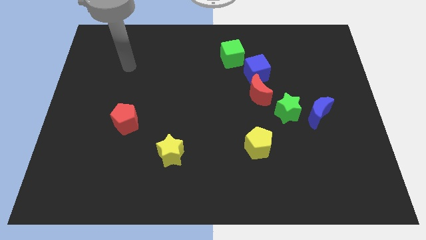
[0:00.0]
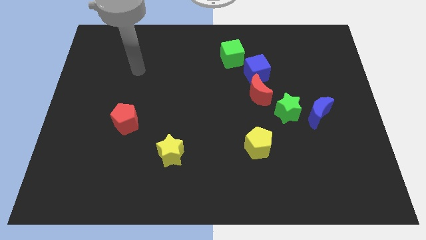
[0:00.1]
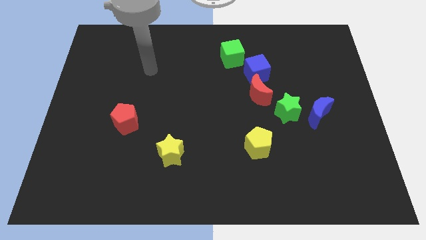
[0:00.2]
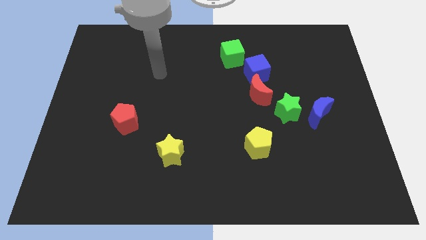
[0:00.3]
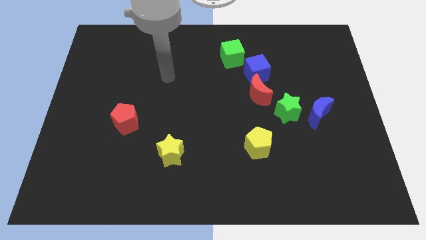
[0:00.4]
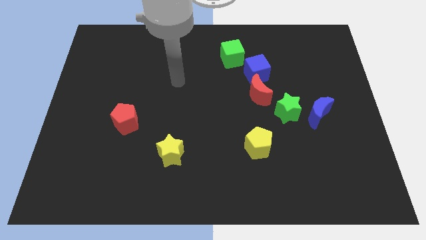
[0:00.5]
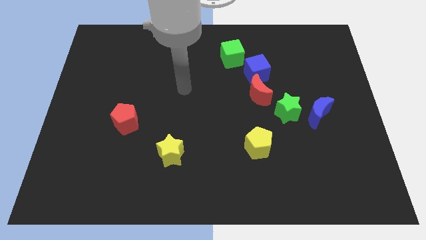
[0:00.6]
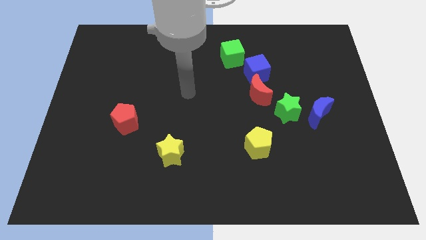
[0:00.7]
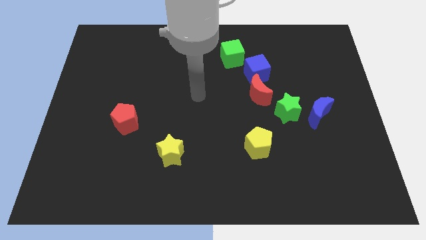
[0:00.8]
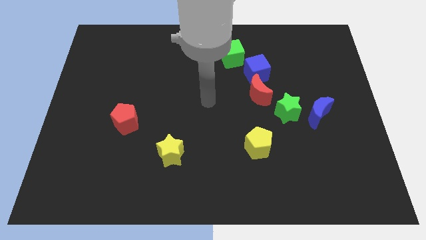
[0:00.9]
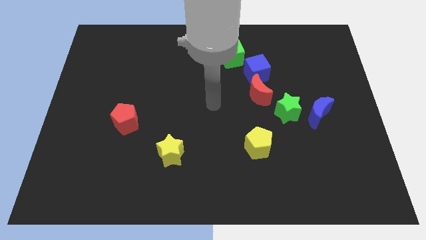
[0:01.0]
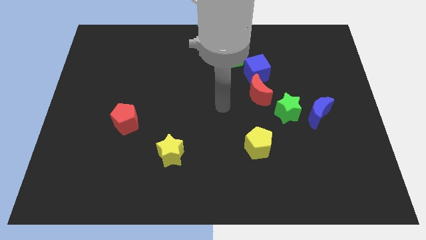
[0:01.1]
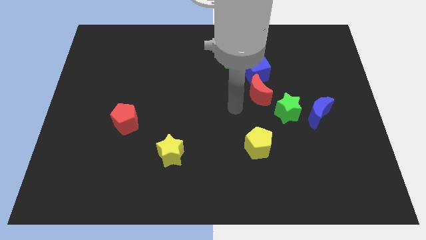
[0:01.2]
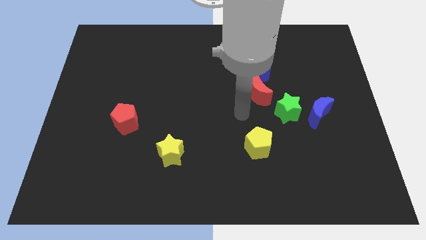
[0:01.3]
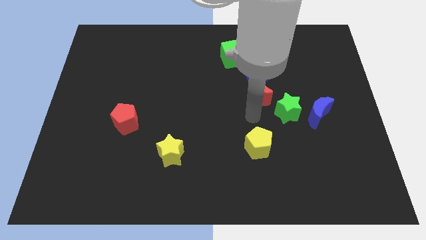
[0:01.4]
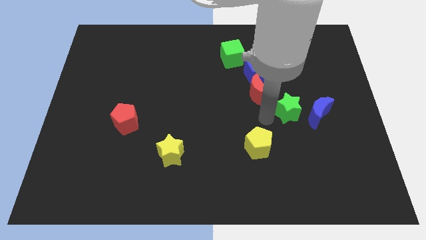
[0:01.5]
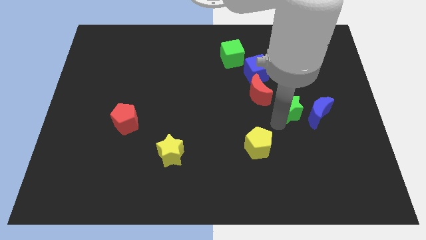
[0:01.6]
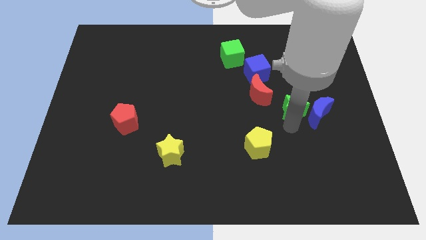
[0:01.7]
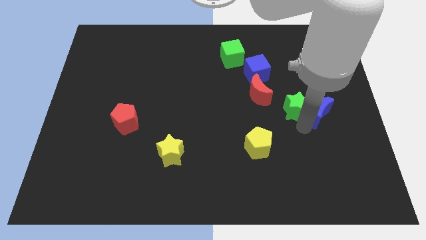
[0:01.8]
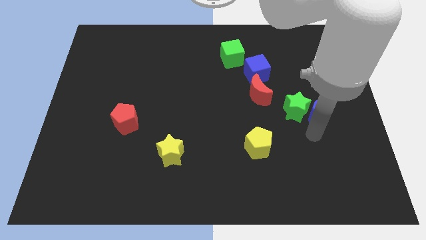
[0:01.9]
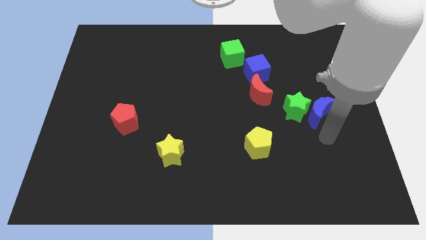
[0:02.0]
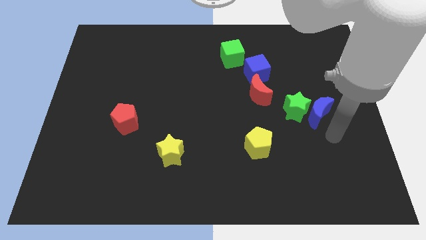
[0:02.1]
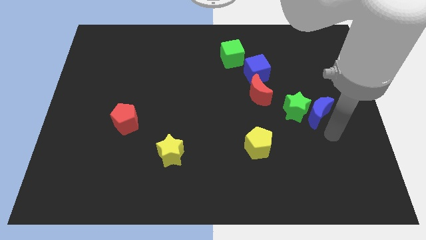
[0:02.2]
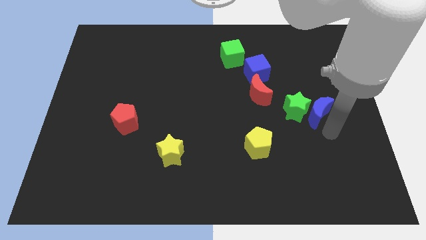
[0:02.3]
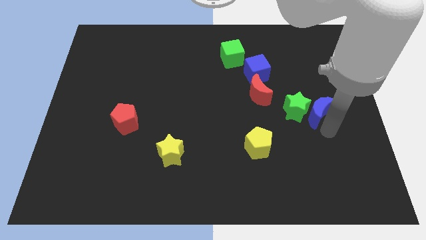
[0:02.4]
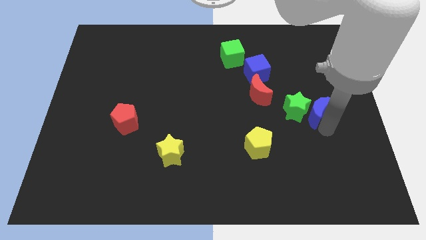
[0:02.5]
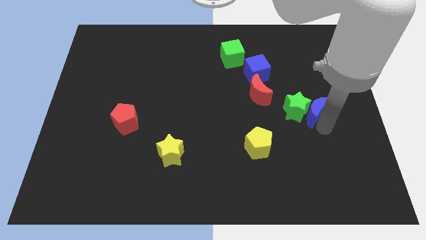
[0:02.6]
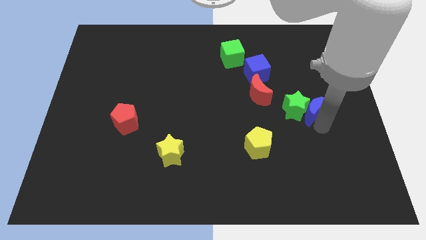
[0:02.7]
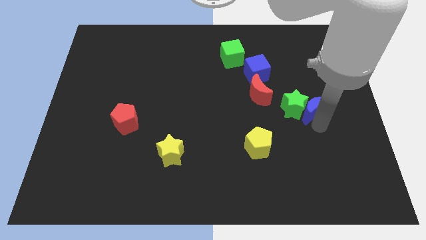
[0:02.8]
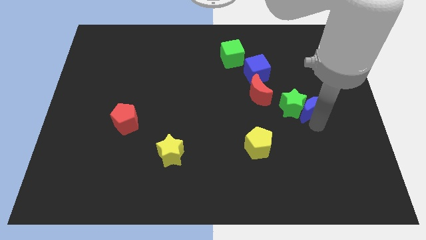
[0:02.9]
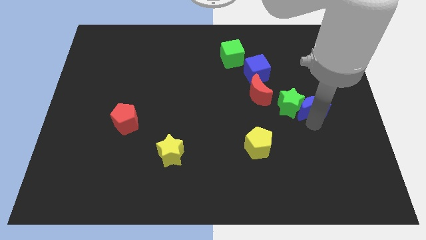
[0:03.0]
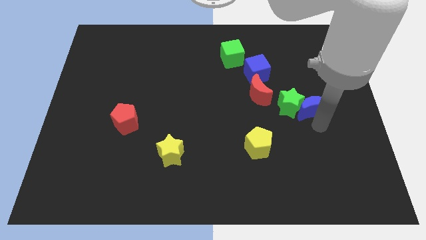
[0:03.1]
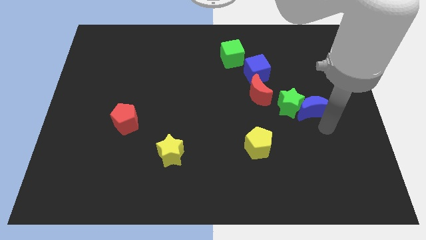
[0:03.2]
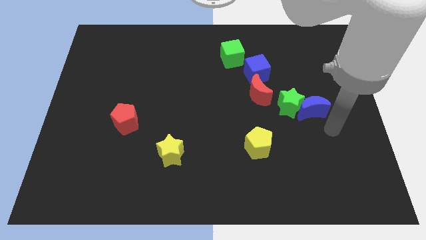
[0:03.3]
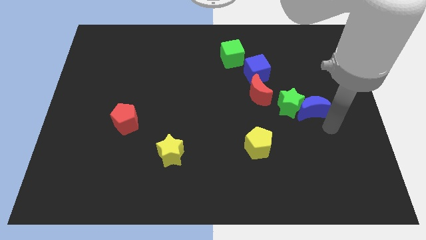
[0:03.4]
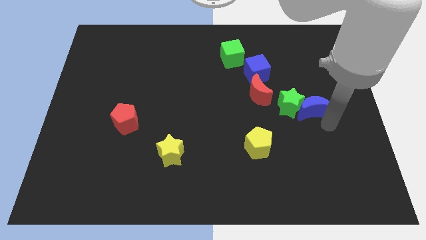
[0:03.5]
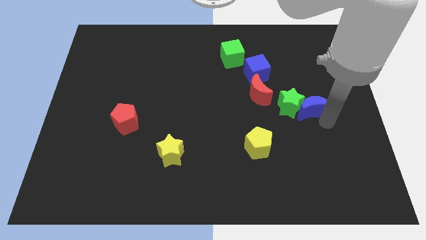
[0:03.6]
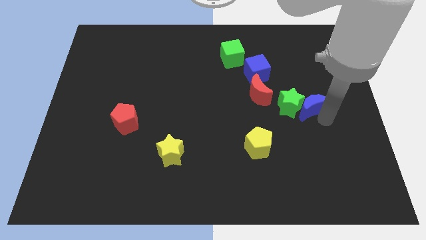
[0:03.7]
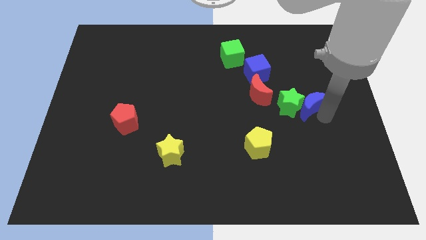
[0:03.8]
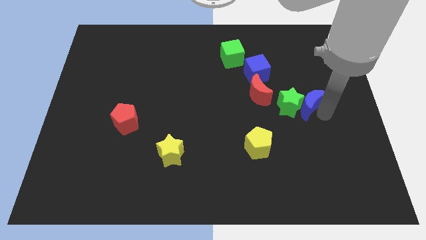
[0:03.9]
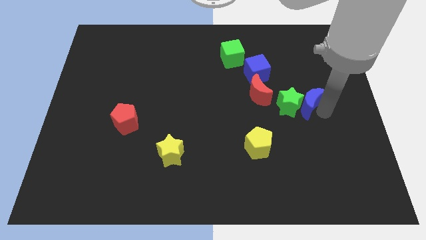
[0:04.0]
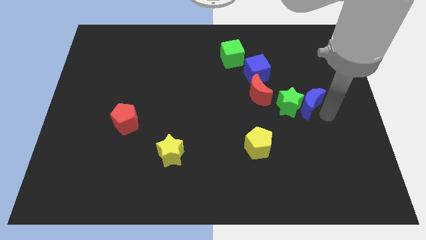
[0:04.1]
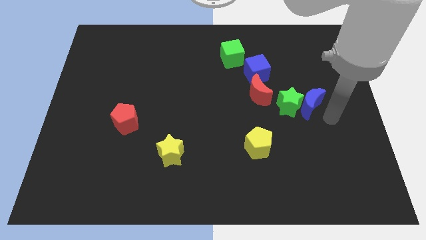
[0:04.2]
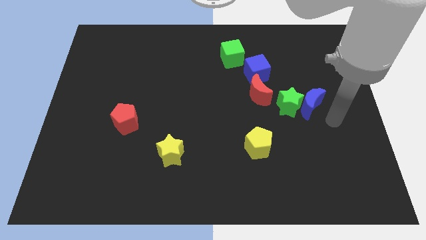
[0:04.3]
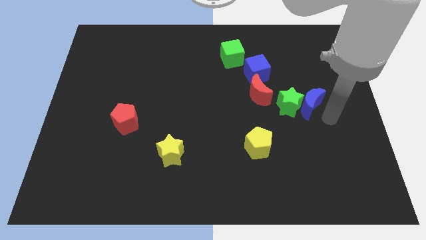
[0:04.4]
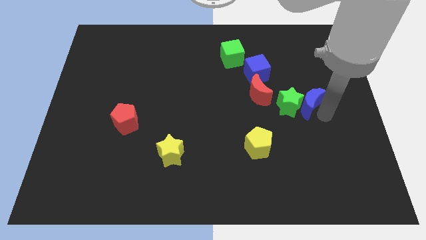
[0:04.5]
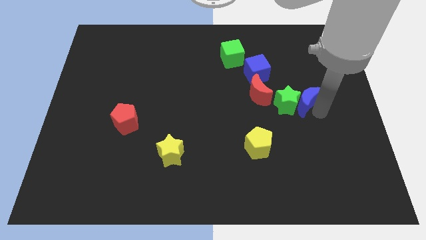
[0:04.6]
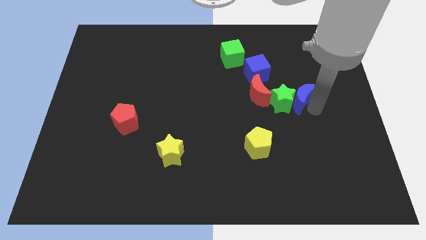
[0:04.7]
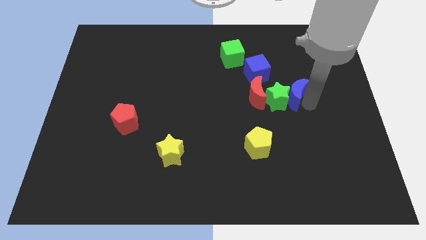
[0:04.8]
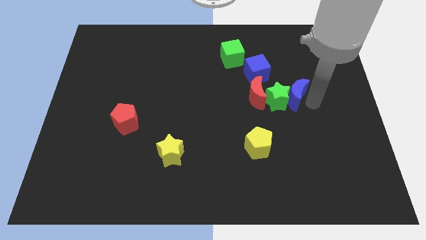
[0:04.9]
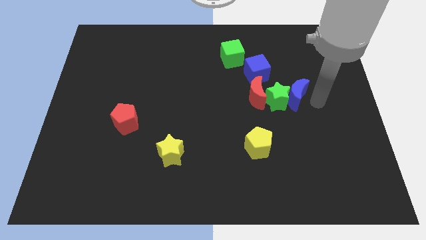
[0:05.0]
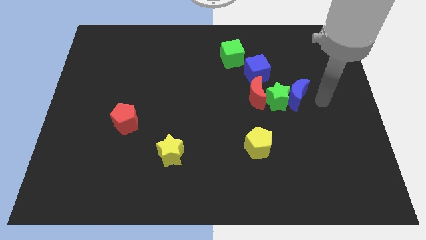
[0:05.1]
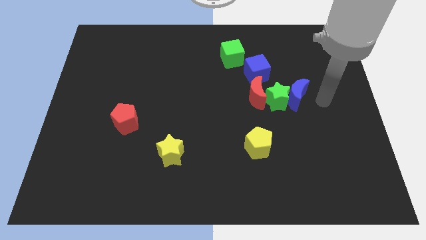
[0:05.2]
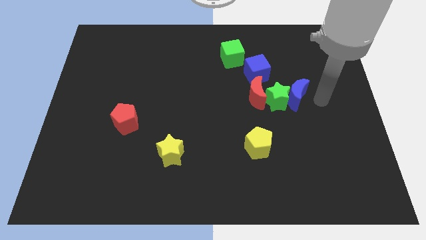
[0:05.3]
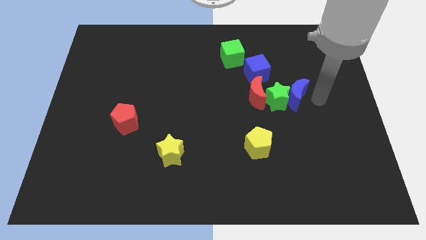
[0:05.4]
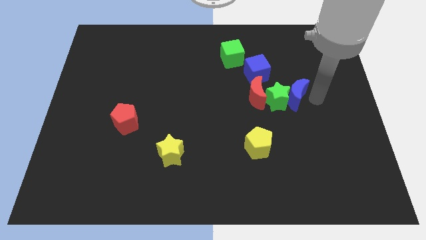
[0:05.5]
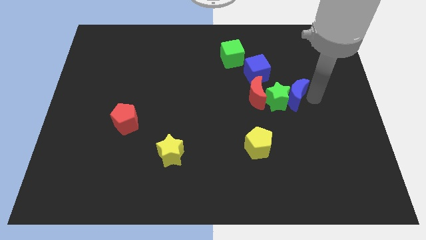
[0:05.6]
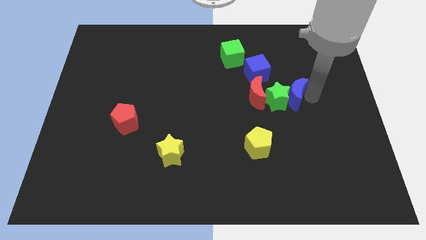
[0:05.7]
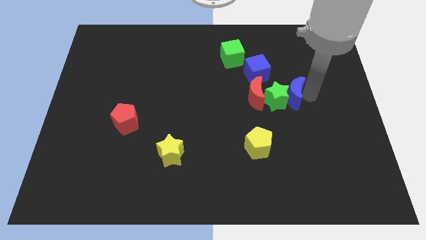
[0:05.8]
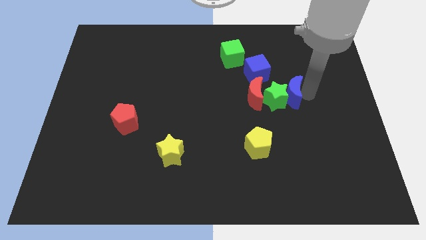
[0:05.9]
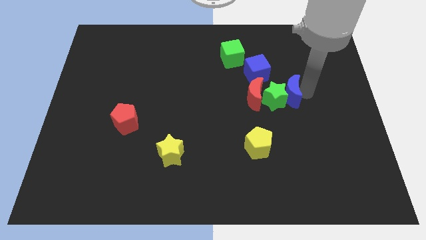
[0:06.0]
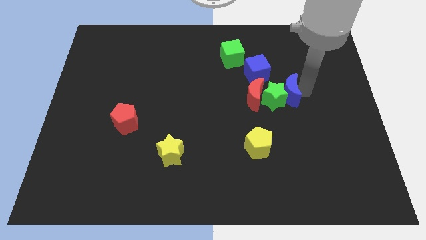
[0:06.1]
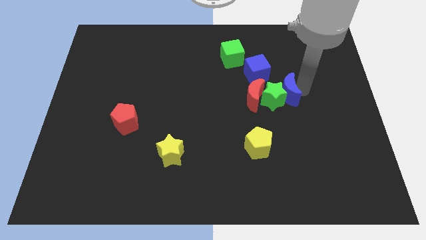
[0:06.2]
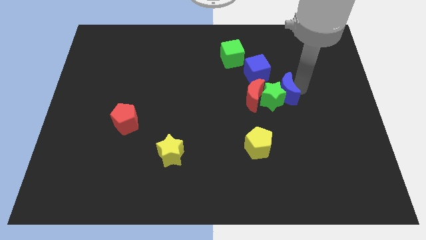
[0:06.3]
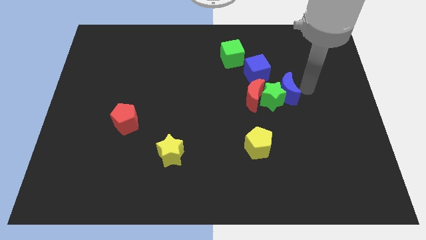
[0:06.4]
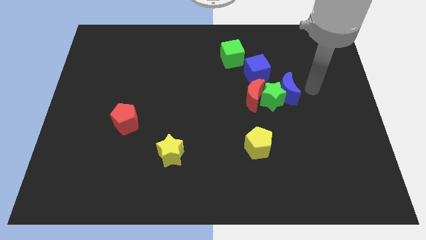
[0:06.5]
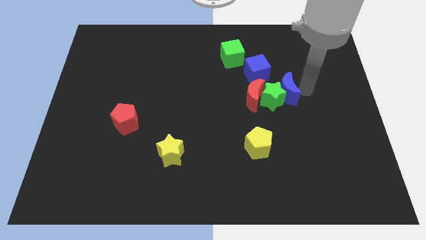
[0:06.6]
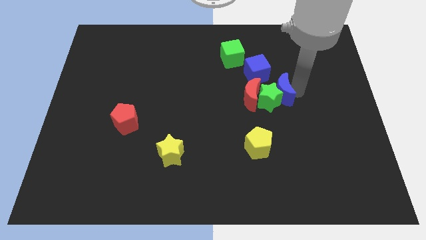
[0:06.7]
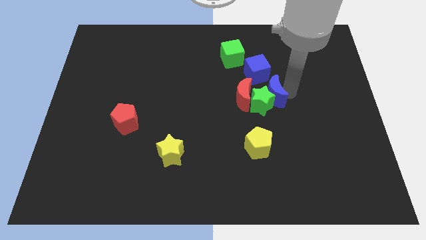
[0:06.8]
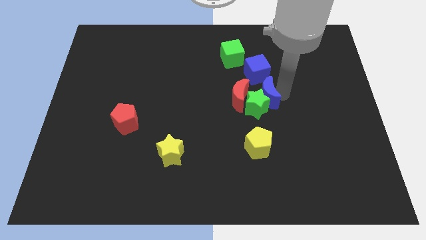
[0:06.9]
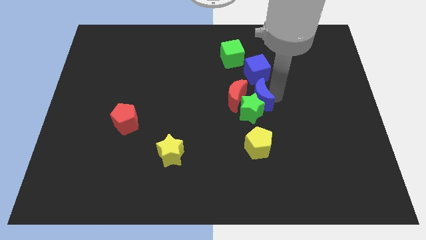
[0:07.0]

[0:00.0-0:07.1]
move the blue moon next to the red moon

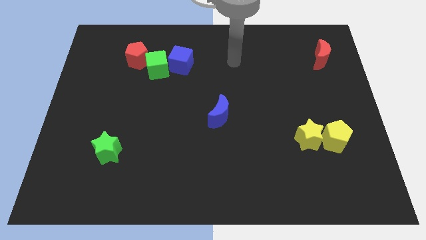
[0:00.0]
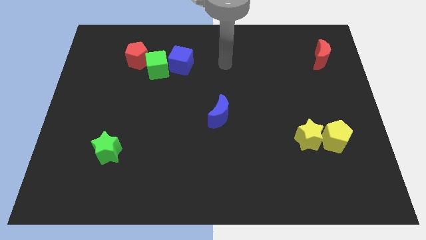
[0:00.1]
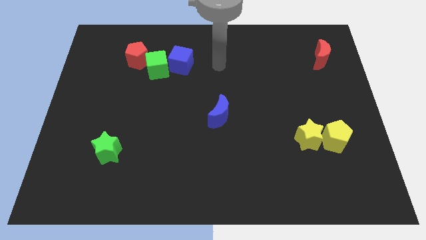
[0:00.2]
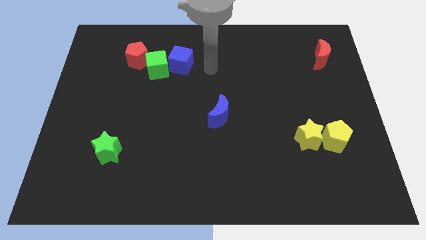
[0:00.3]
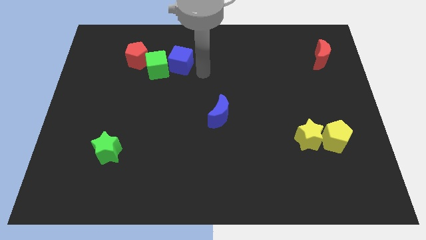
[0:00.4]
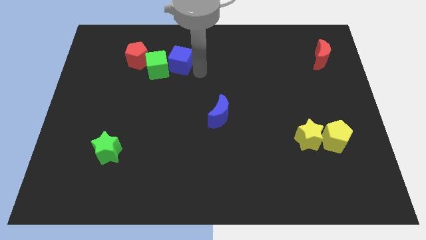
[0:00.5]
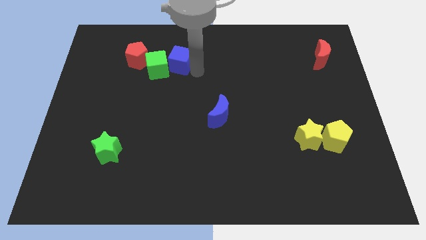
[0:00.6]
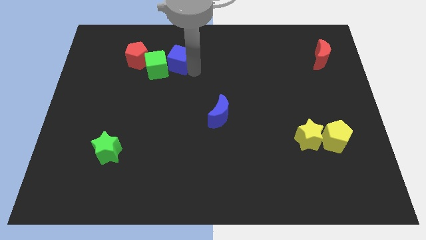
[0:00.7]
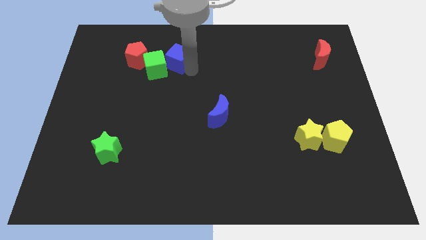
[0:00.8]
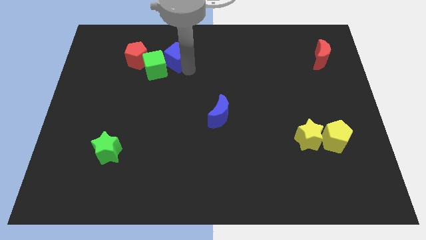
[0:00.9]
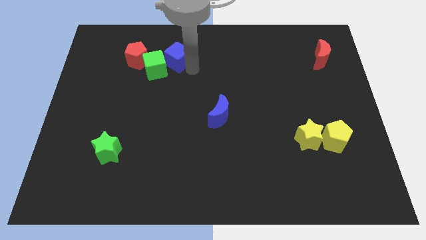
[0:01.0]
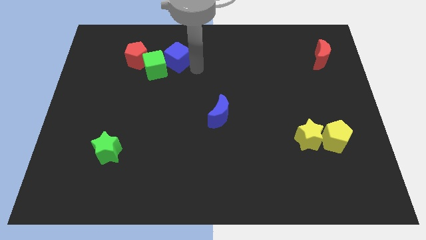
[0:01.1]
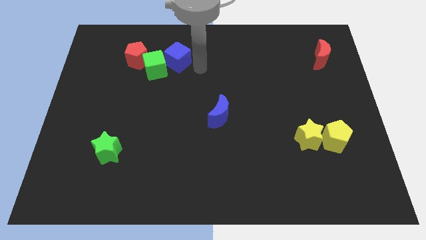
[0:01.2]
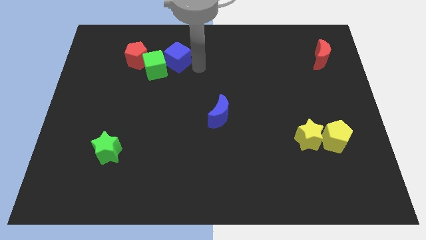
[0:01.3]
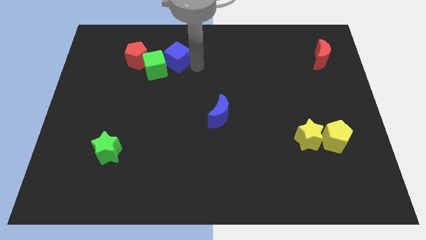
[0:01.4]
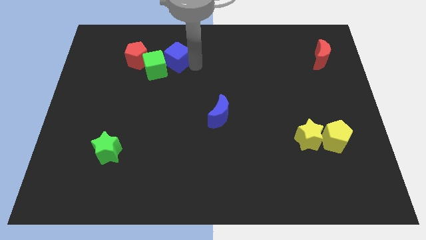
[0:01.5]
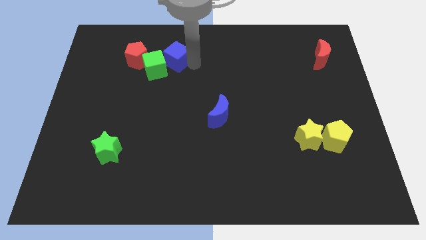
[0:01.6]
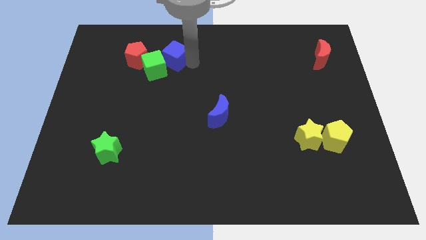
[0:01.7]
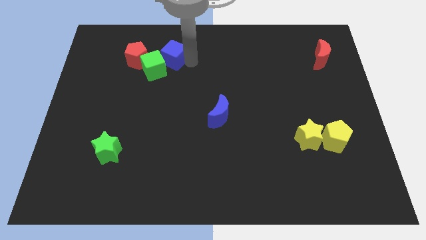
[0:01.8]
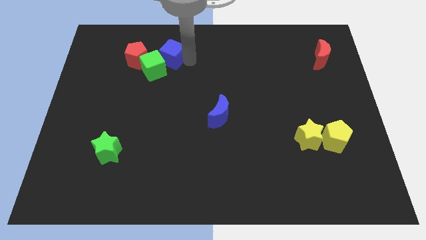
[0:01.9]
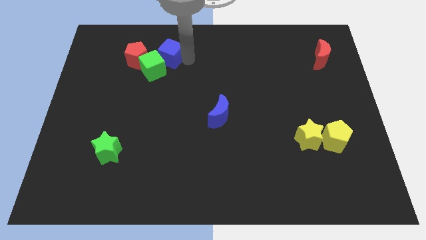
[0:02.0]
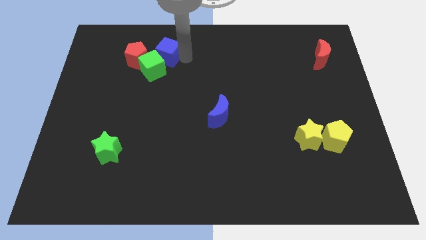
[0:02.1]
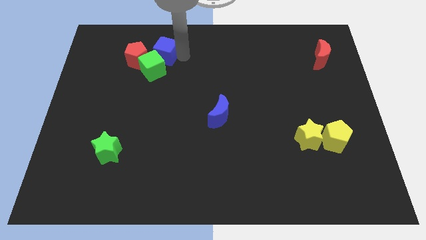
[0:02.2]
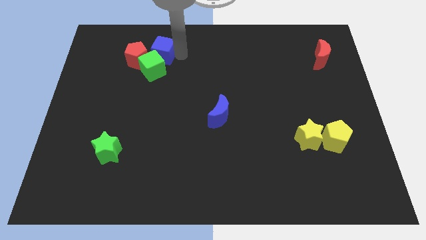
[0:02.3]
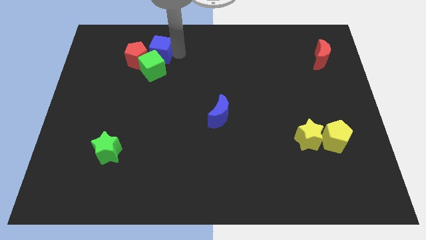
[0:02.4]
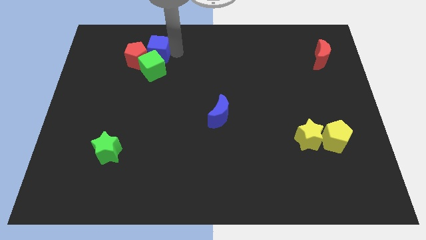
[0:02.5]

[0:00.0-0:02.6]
slide the blue cube next to the red pentagon
